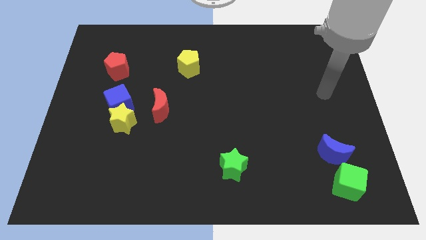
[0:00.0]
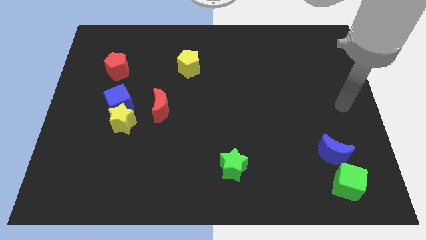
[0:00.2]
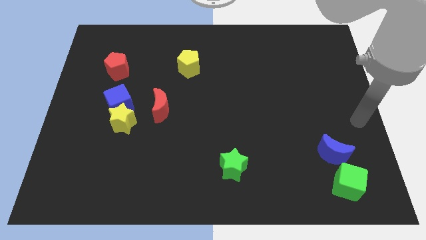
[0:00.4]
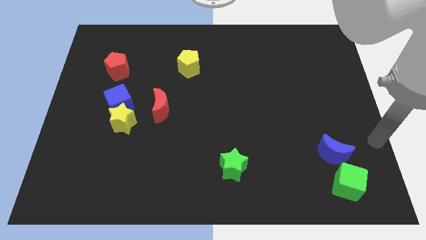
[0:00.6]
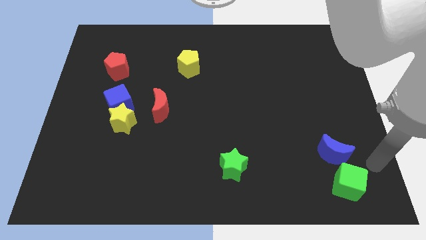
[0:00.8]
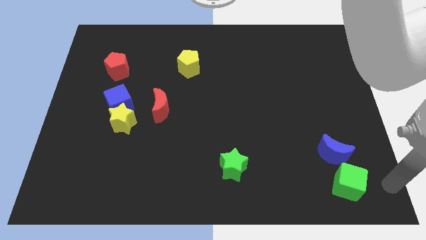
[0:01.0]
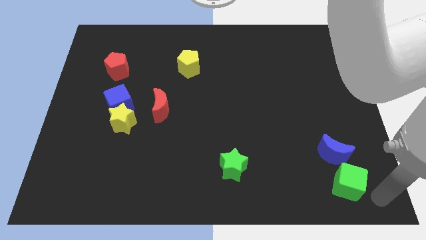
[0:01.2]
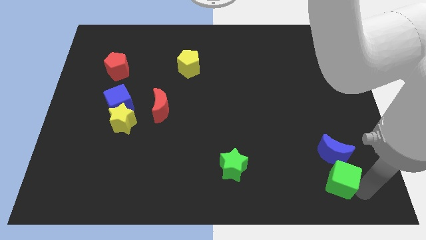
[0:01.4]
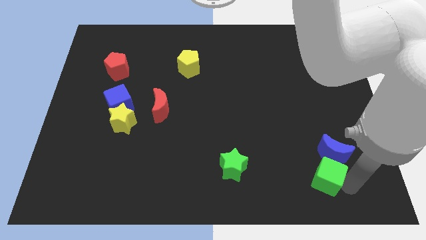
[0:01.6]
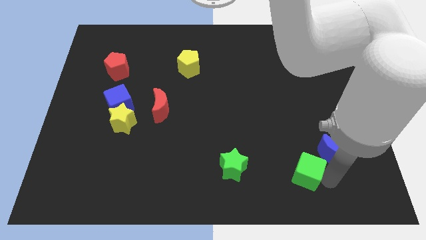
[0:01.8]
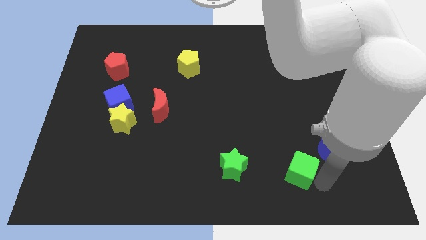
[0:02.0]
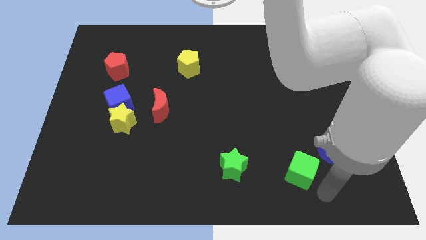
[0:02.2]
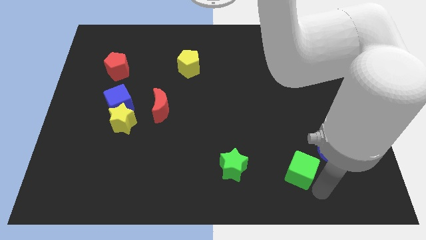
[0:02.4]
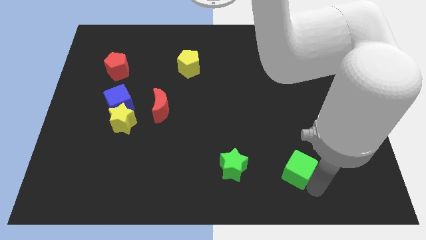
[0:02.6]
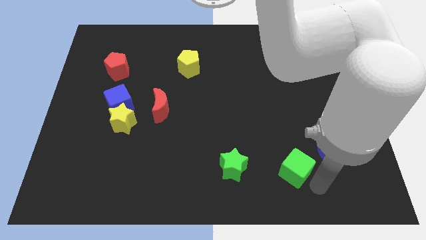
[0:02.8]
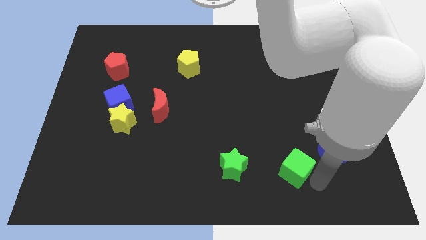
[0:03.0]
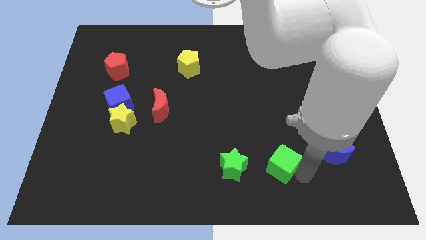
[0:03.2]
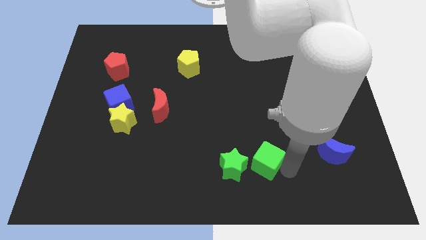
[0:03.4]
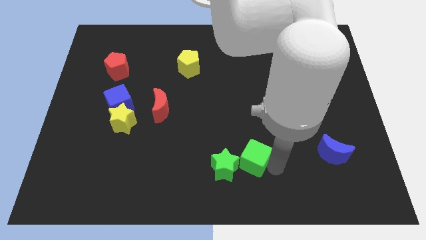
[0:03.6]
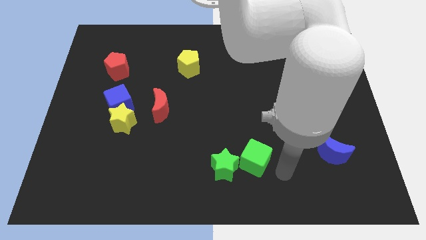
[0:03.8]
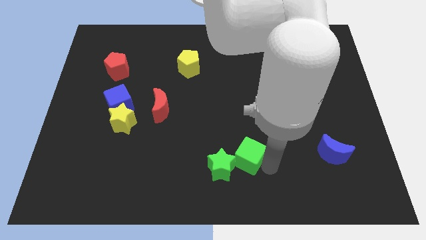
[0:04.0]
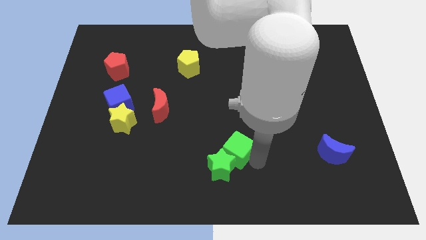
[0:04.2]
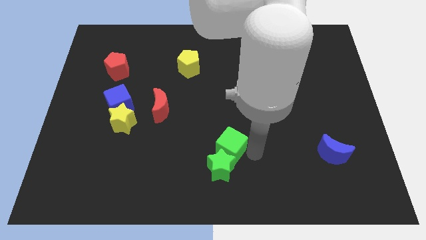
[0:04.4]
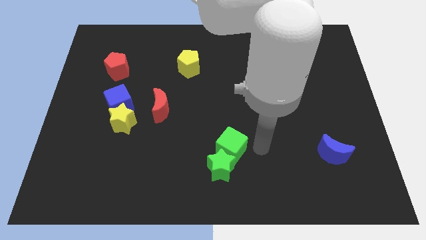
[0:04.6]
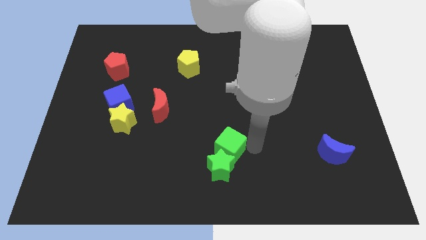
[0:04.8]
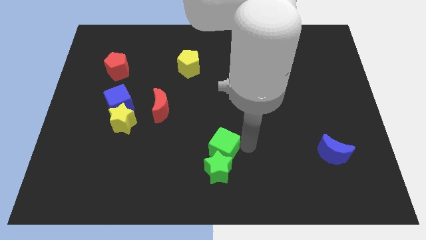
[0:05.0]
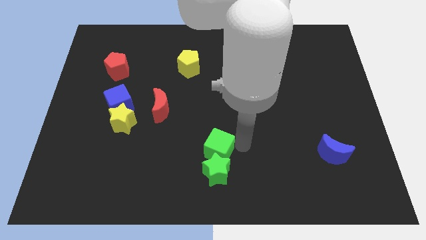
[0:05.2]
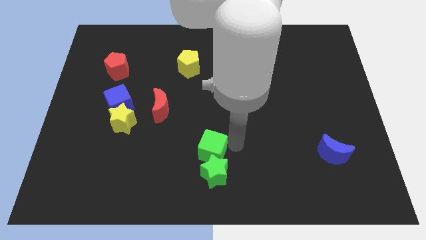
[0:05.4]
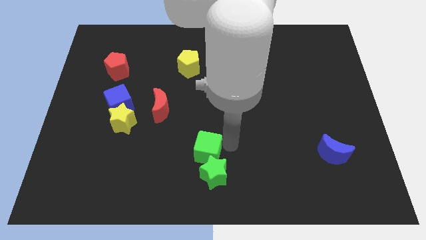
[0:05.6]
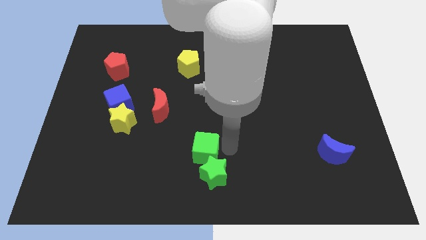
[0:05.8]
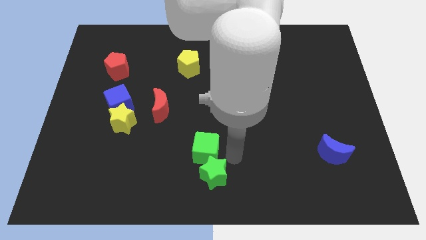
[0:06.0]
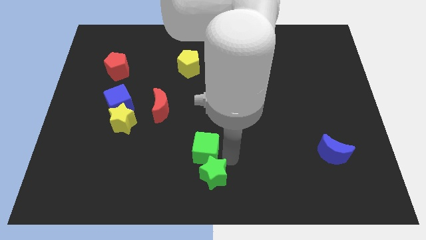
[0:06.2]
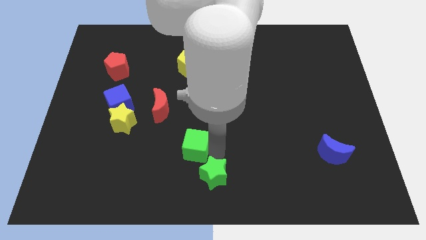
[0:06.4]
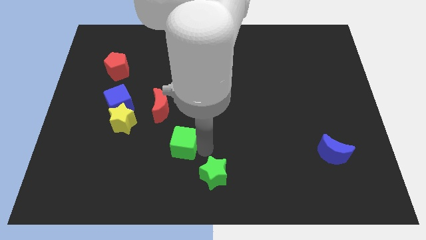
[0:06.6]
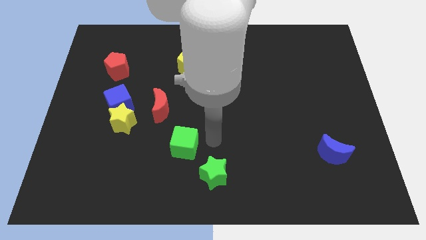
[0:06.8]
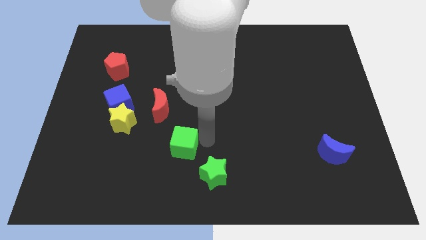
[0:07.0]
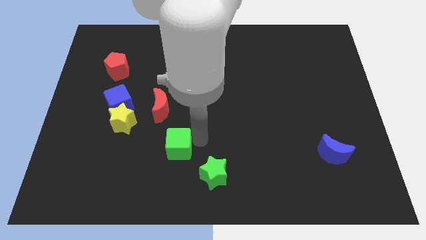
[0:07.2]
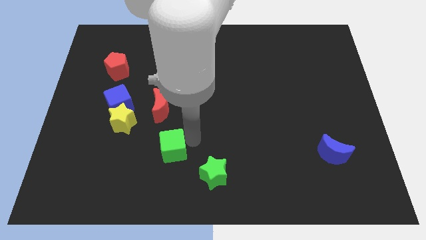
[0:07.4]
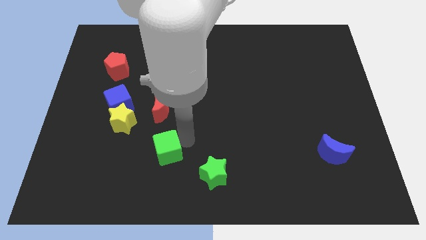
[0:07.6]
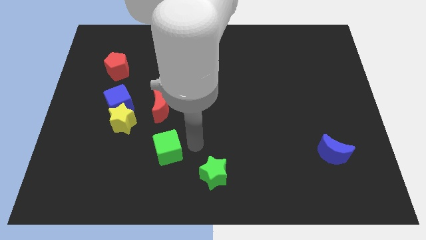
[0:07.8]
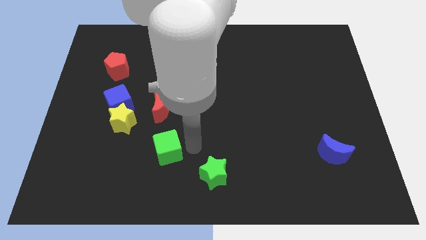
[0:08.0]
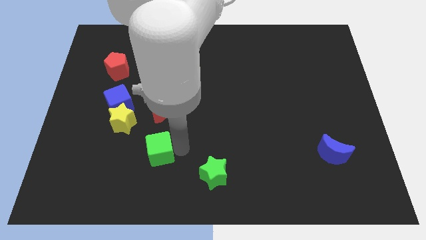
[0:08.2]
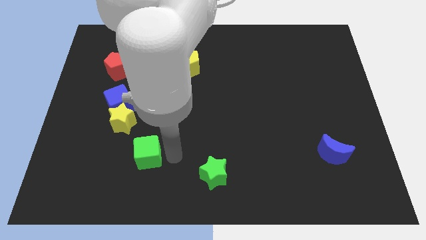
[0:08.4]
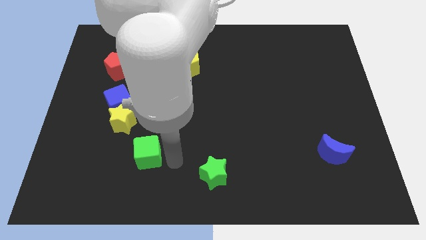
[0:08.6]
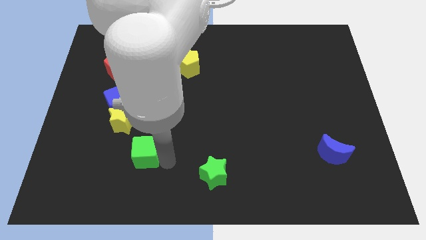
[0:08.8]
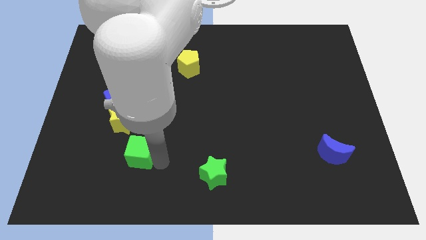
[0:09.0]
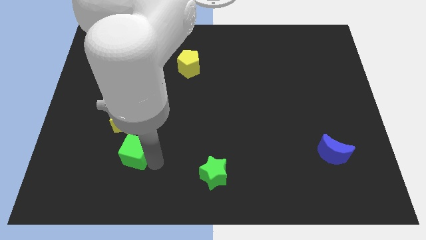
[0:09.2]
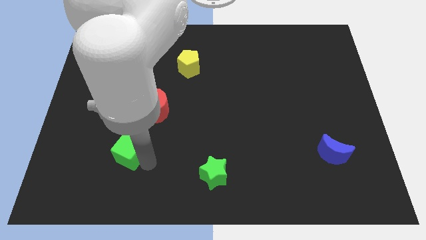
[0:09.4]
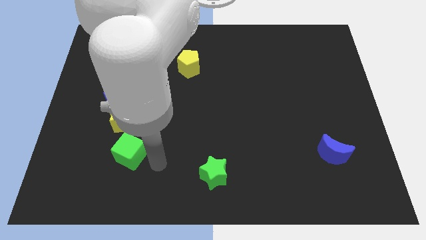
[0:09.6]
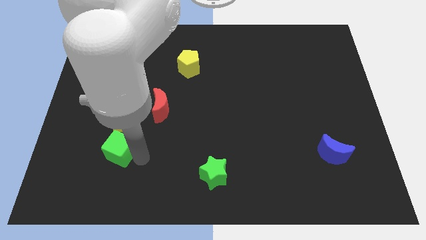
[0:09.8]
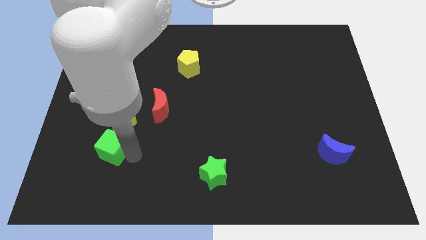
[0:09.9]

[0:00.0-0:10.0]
put the green cube diagonally down and to the left of the yellow star

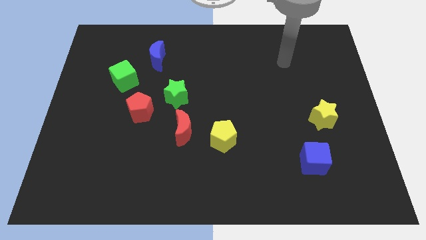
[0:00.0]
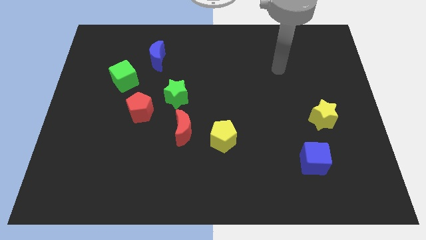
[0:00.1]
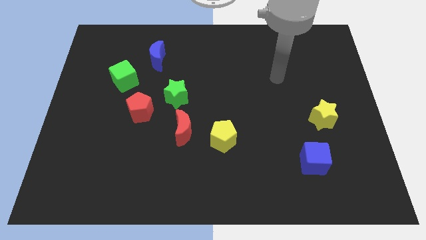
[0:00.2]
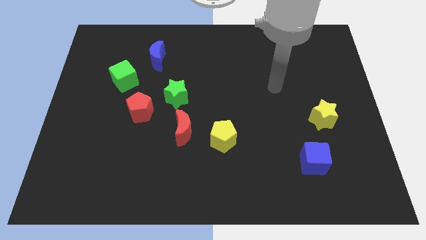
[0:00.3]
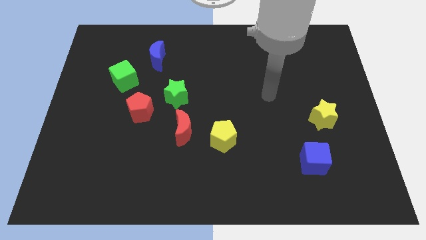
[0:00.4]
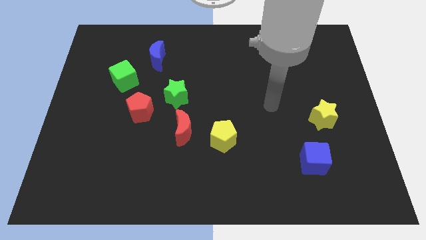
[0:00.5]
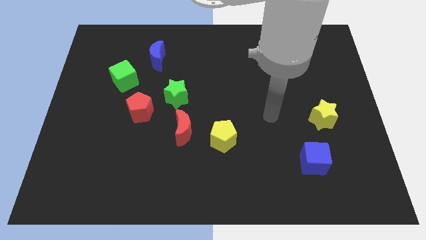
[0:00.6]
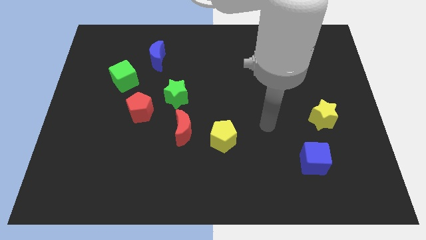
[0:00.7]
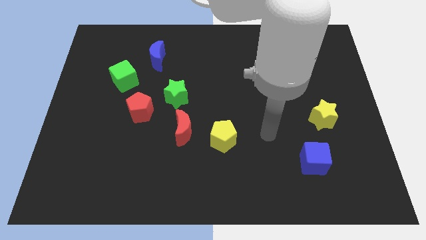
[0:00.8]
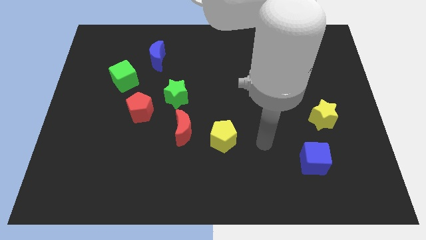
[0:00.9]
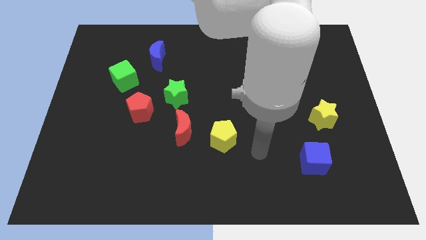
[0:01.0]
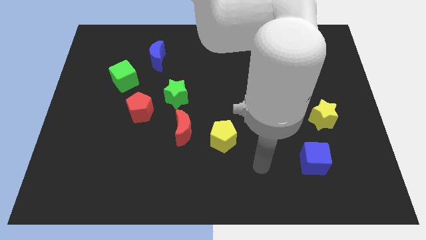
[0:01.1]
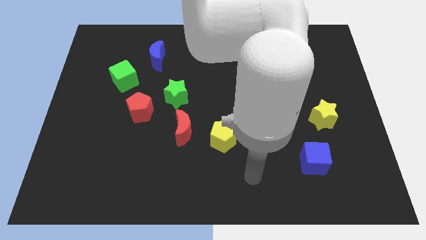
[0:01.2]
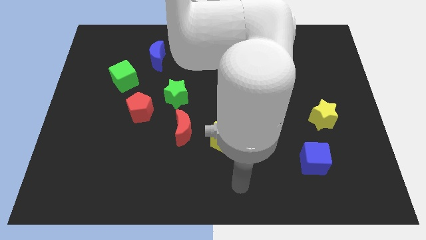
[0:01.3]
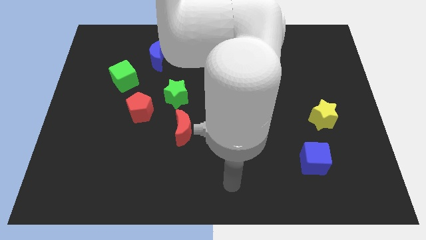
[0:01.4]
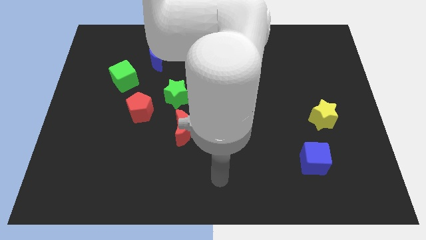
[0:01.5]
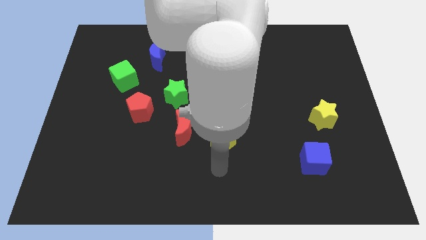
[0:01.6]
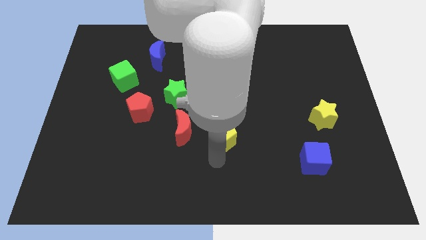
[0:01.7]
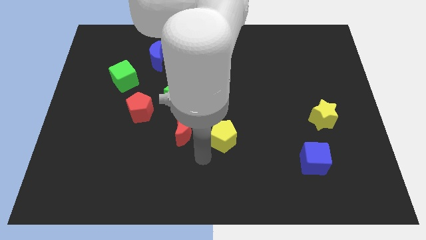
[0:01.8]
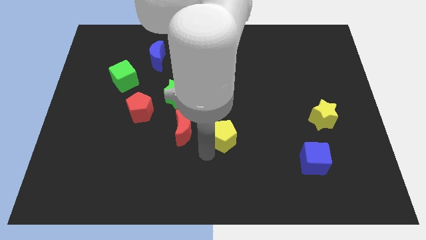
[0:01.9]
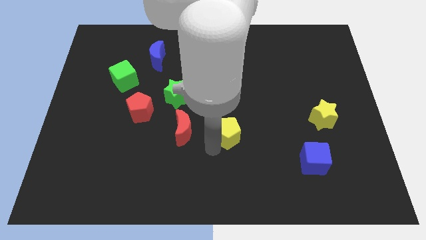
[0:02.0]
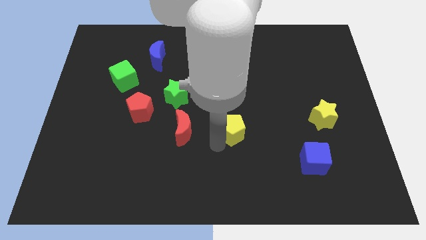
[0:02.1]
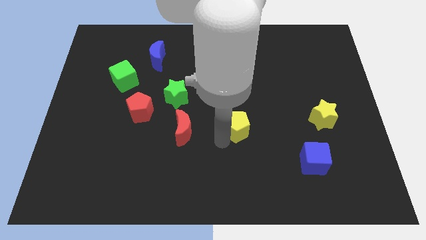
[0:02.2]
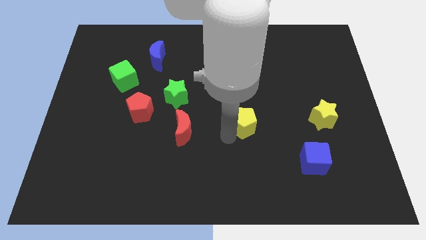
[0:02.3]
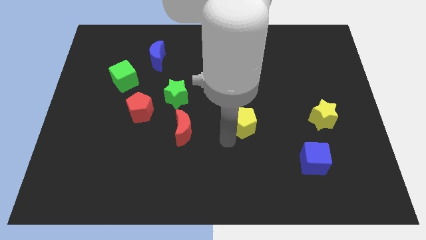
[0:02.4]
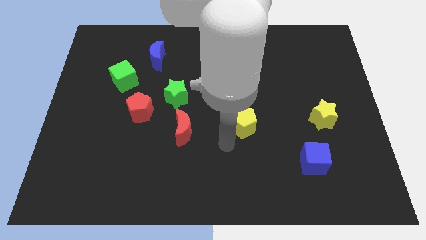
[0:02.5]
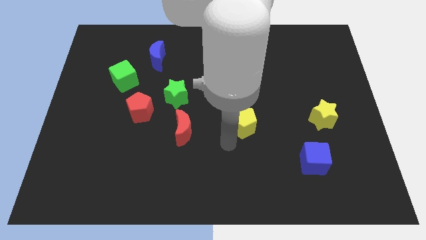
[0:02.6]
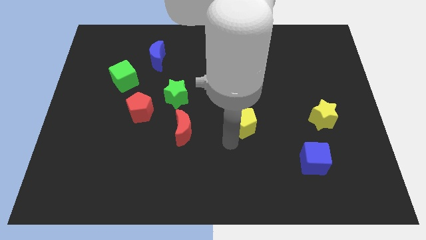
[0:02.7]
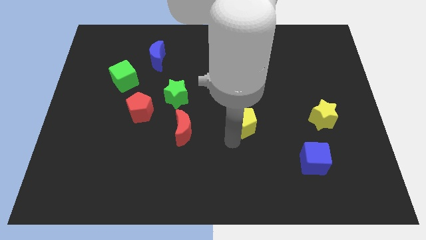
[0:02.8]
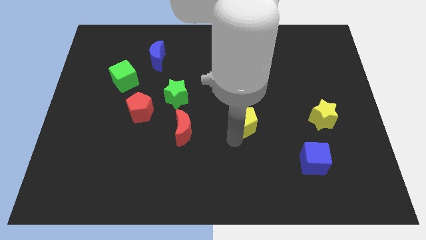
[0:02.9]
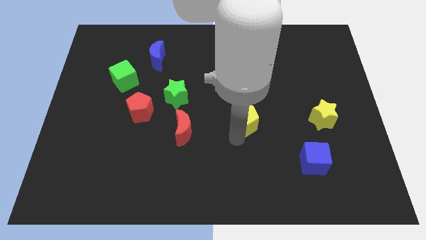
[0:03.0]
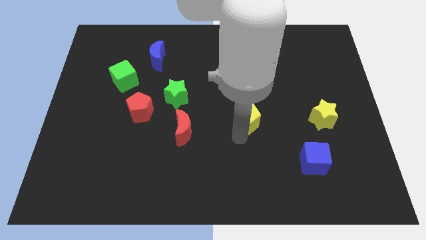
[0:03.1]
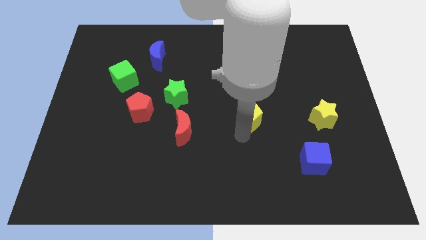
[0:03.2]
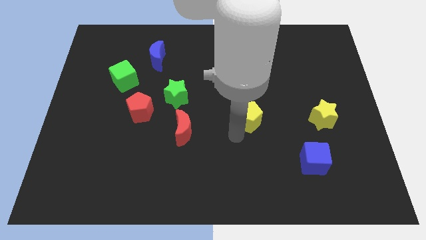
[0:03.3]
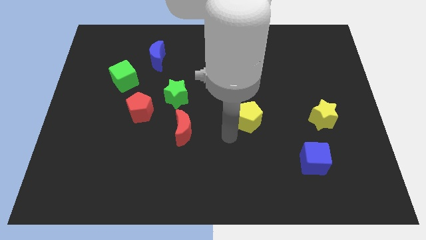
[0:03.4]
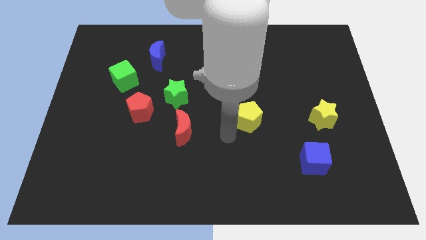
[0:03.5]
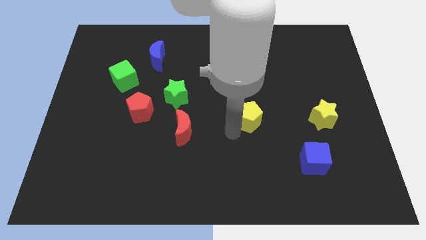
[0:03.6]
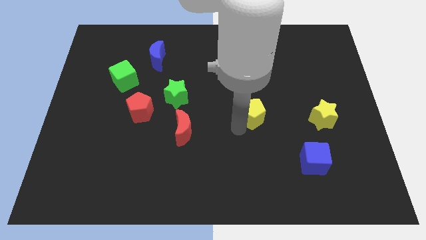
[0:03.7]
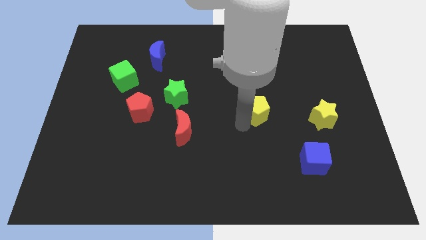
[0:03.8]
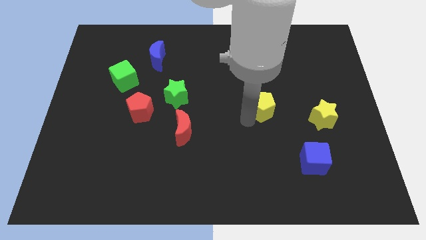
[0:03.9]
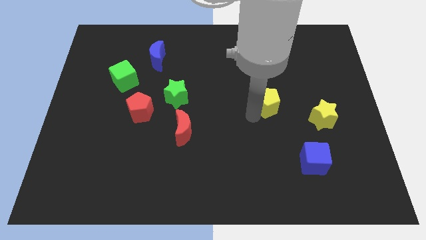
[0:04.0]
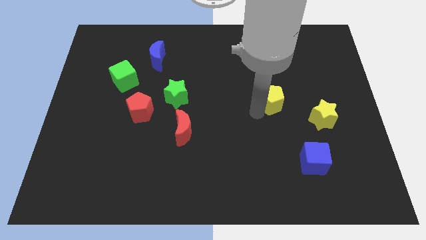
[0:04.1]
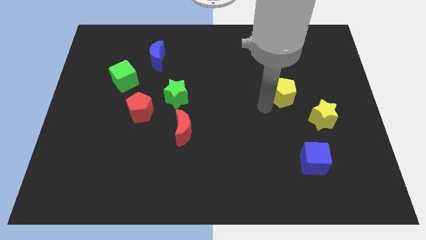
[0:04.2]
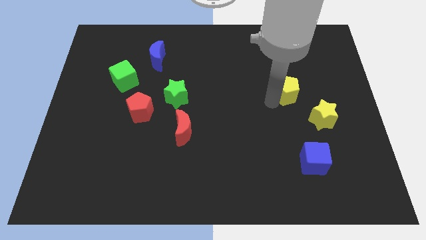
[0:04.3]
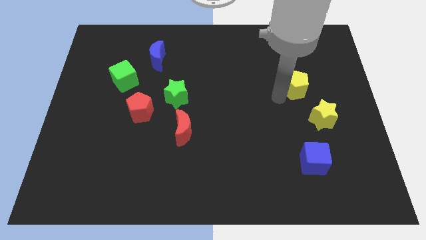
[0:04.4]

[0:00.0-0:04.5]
move the yellow pentagon above the yellow star
